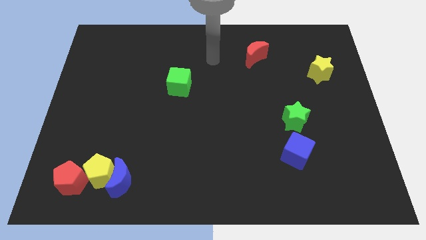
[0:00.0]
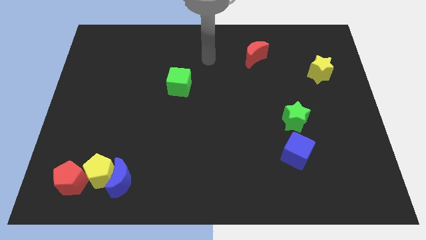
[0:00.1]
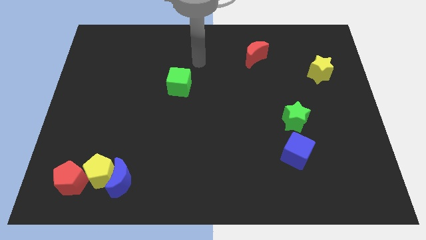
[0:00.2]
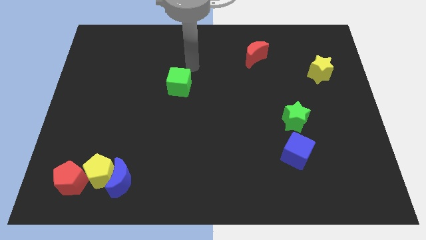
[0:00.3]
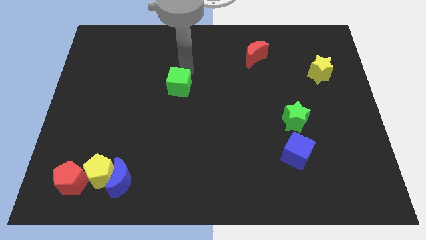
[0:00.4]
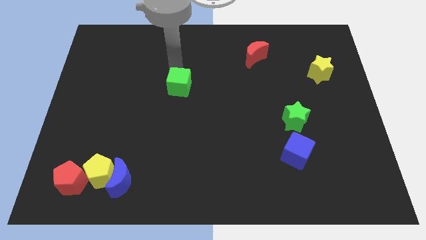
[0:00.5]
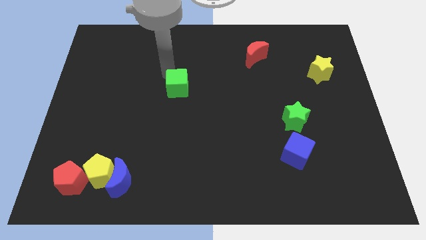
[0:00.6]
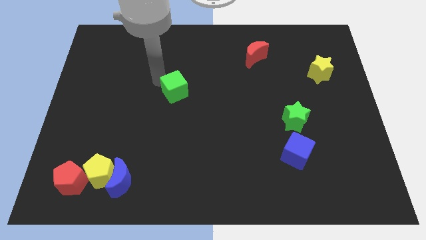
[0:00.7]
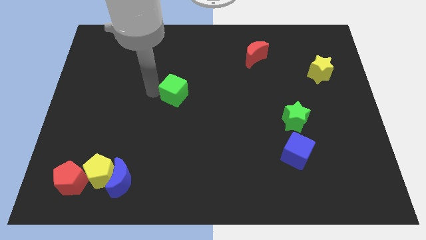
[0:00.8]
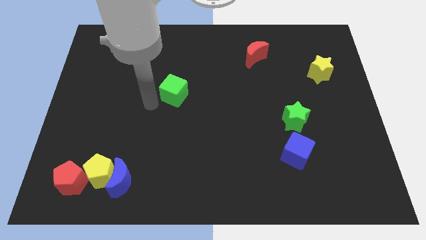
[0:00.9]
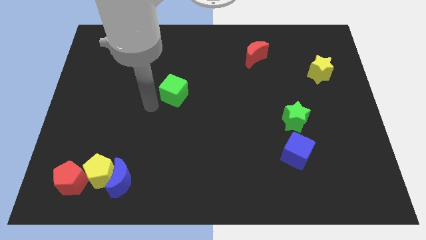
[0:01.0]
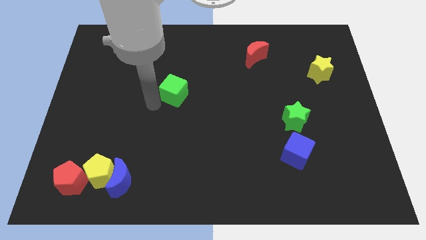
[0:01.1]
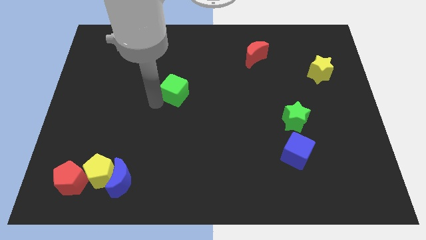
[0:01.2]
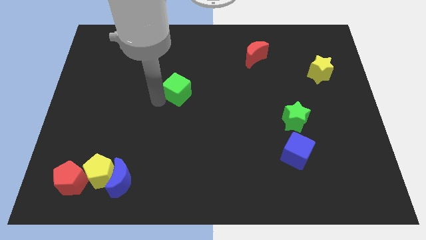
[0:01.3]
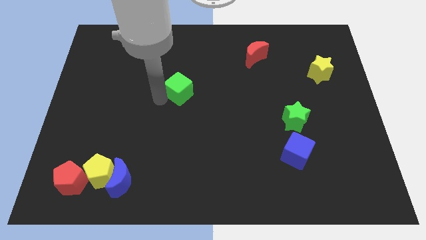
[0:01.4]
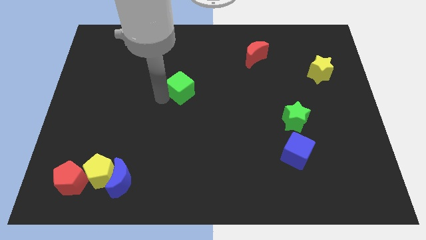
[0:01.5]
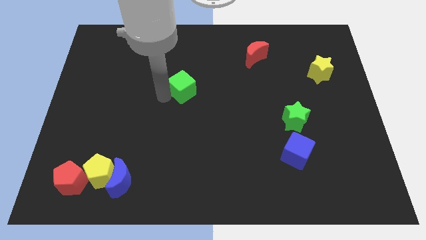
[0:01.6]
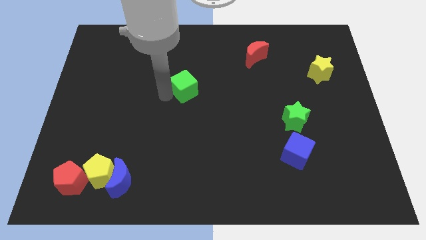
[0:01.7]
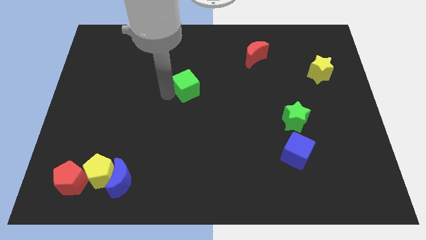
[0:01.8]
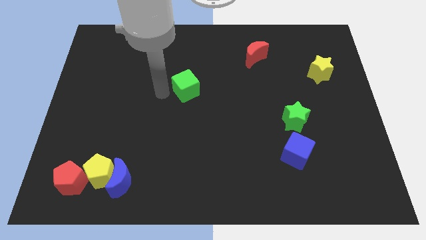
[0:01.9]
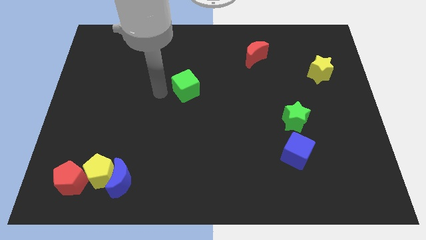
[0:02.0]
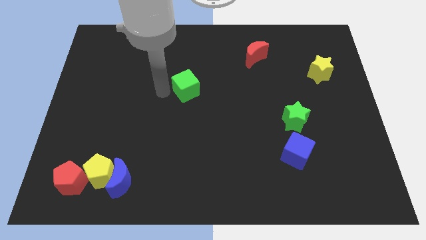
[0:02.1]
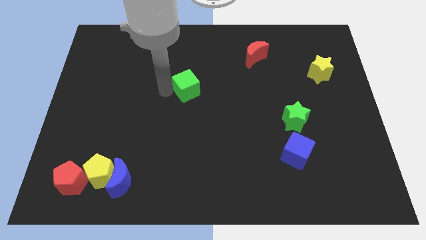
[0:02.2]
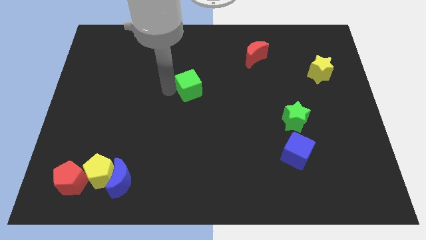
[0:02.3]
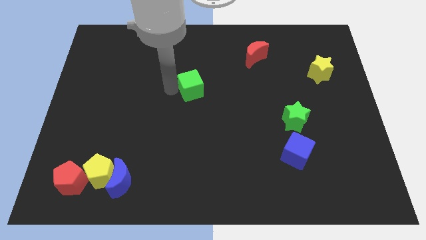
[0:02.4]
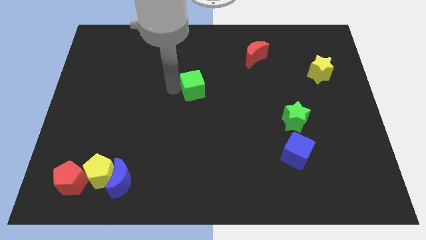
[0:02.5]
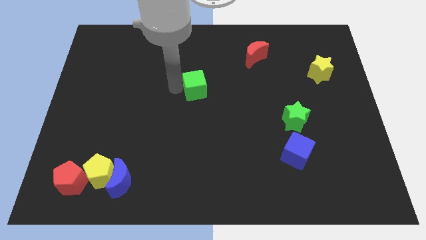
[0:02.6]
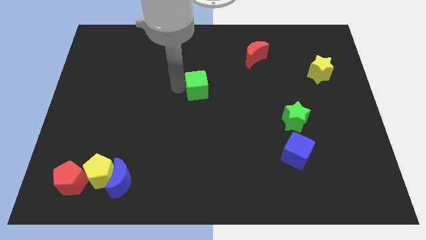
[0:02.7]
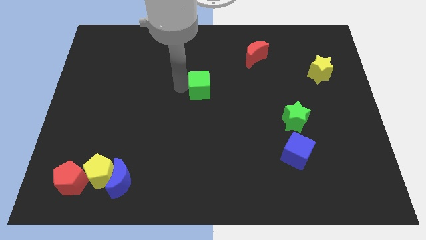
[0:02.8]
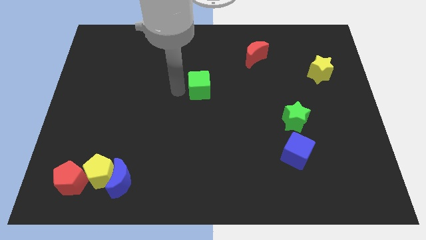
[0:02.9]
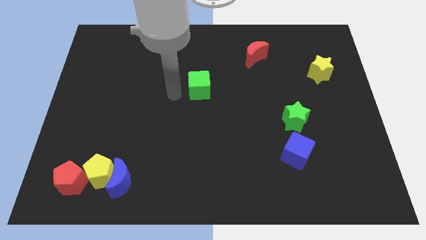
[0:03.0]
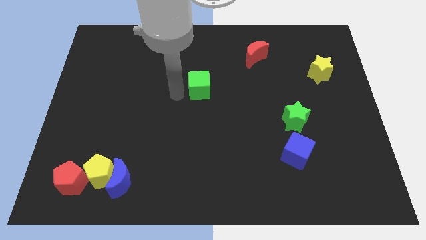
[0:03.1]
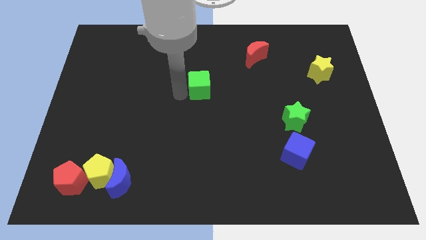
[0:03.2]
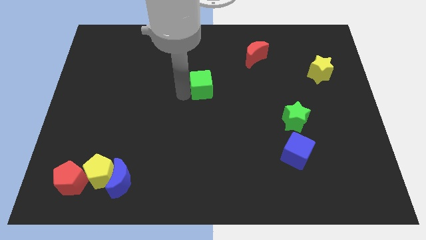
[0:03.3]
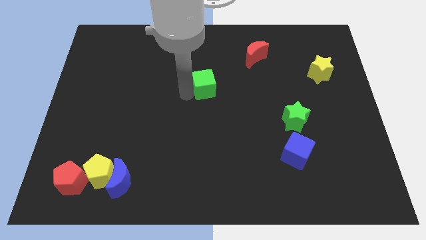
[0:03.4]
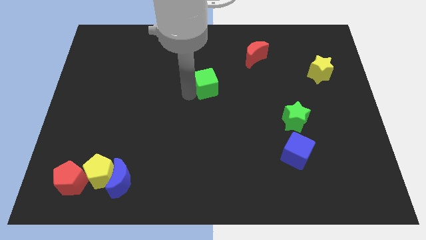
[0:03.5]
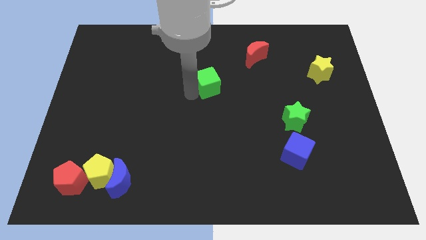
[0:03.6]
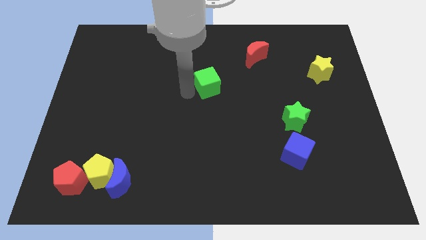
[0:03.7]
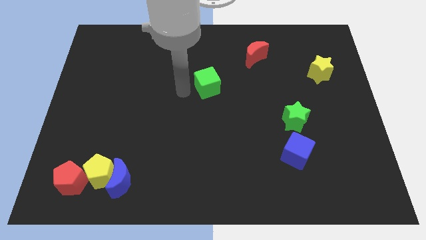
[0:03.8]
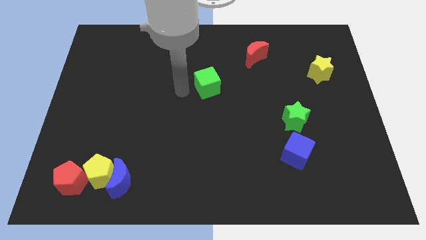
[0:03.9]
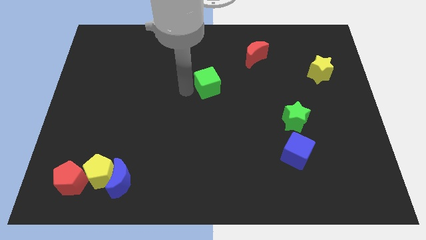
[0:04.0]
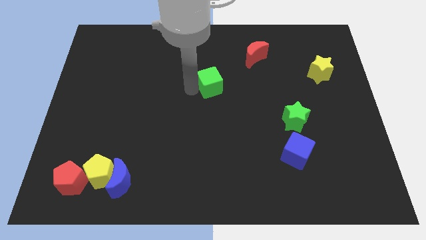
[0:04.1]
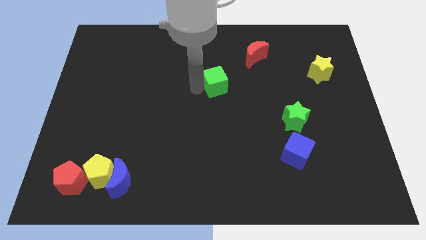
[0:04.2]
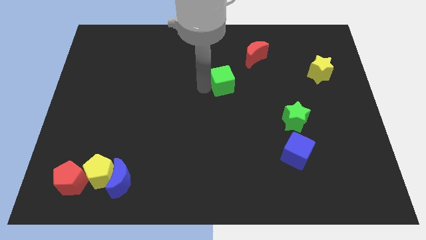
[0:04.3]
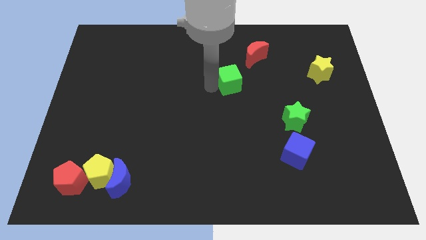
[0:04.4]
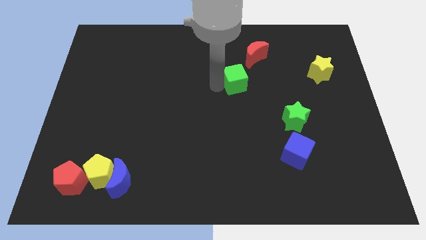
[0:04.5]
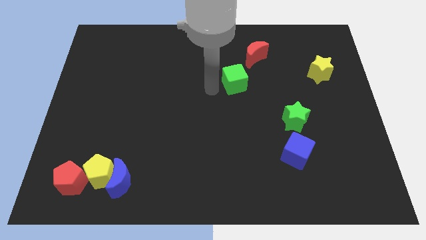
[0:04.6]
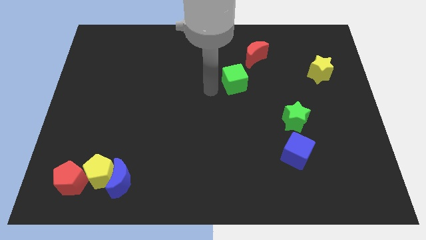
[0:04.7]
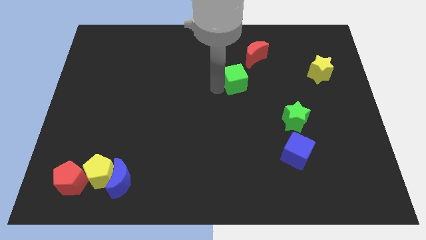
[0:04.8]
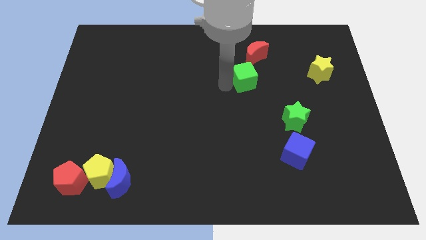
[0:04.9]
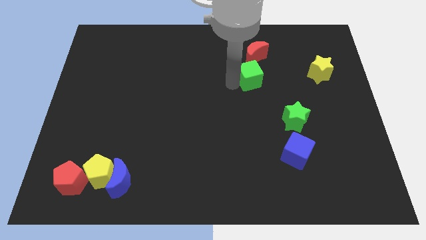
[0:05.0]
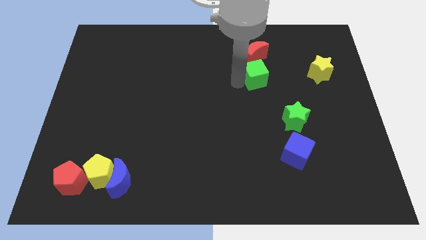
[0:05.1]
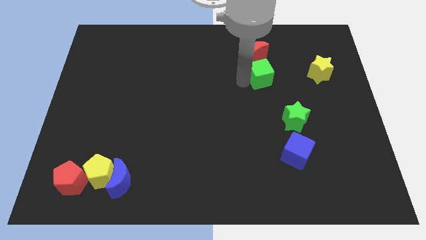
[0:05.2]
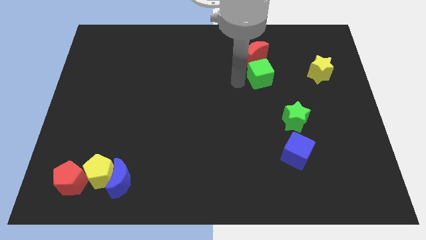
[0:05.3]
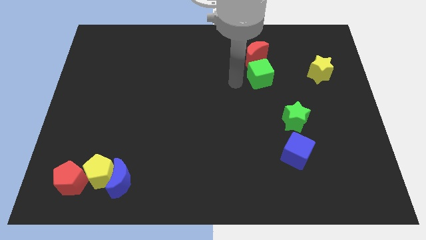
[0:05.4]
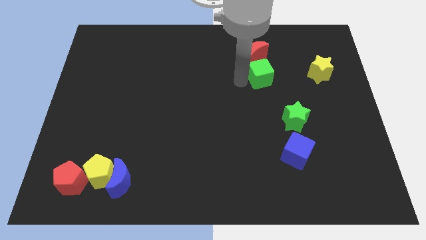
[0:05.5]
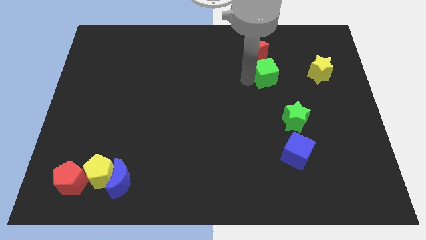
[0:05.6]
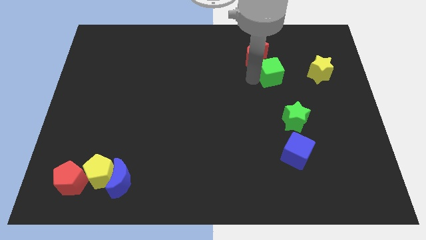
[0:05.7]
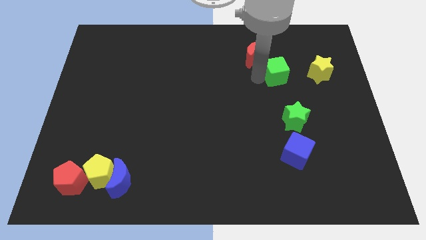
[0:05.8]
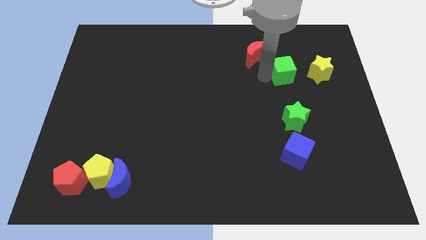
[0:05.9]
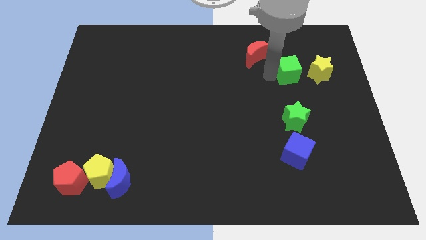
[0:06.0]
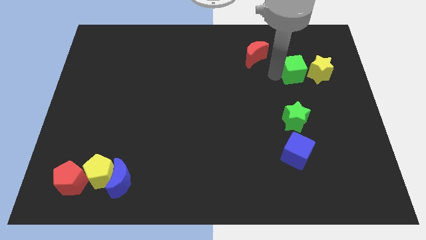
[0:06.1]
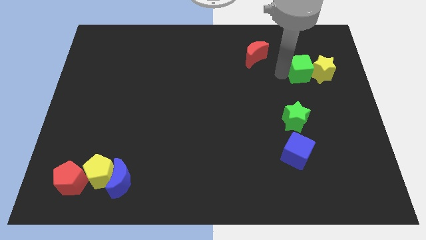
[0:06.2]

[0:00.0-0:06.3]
move the green cube towards the yellow star

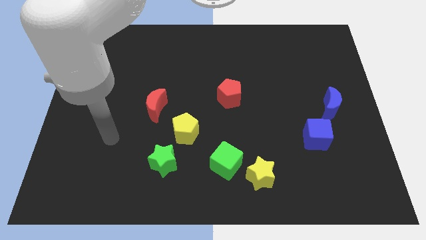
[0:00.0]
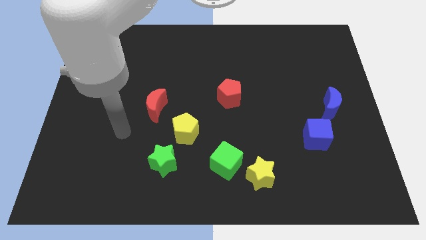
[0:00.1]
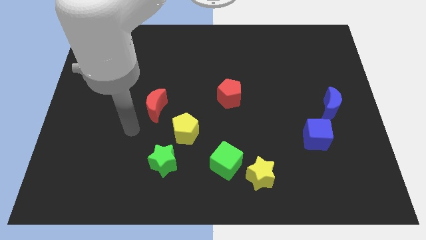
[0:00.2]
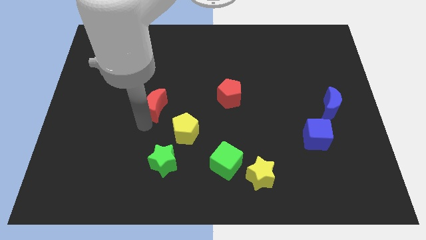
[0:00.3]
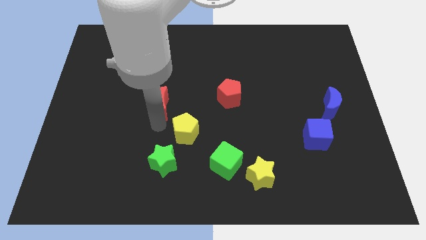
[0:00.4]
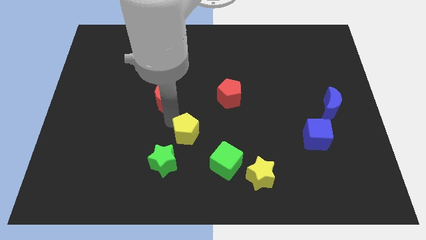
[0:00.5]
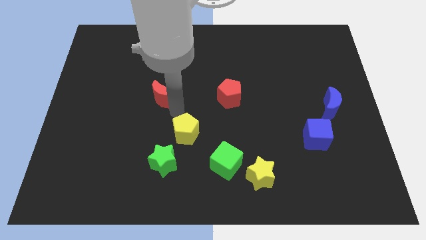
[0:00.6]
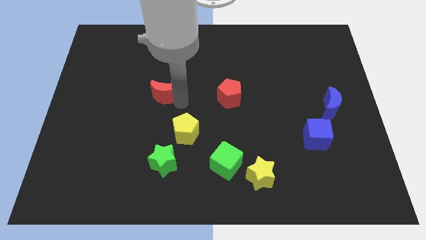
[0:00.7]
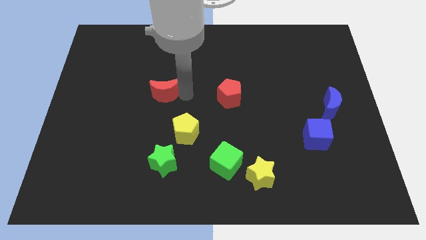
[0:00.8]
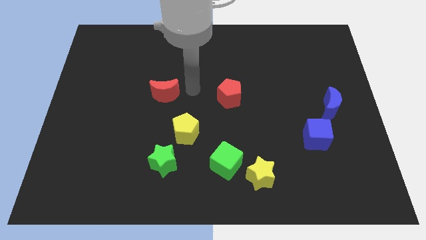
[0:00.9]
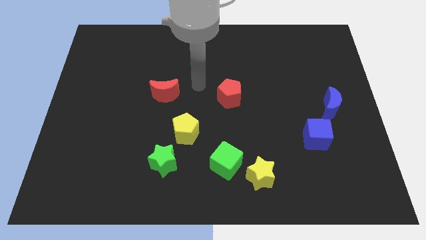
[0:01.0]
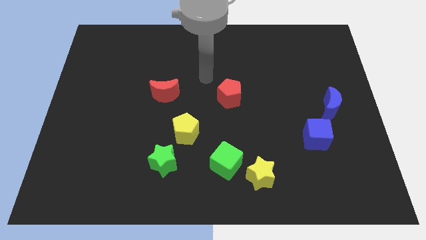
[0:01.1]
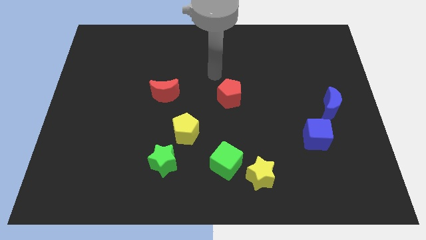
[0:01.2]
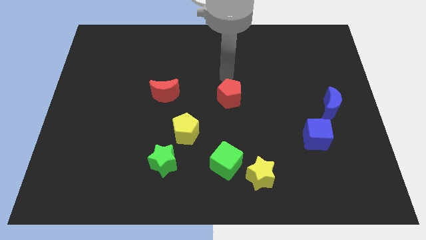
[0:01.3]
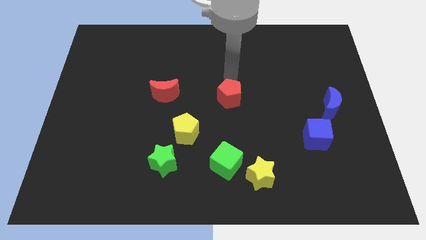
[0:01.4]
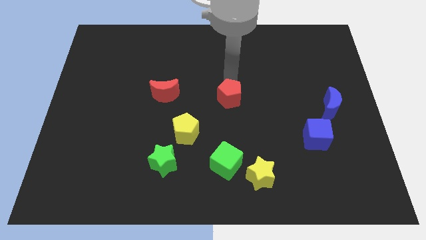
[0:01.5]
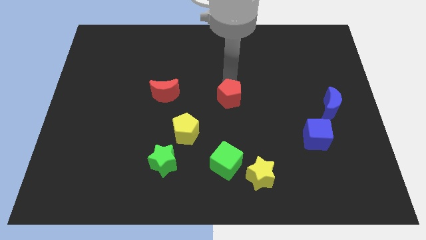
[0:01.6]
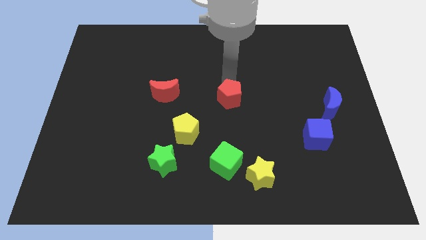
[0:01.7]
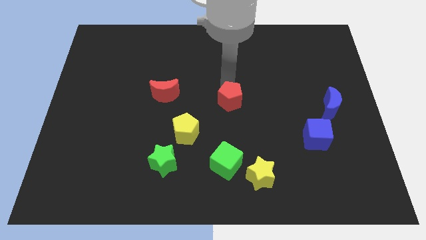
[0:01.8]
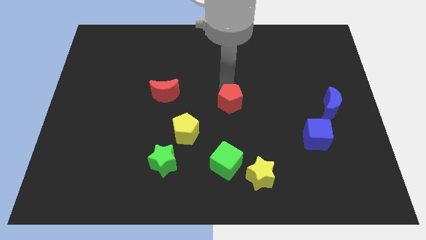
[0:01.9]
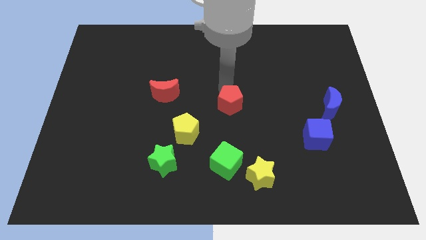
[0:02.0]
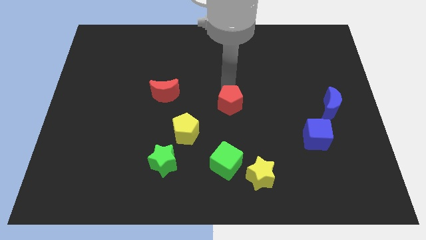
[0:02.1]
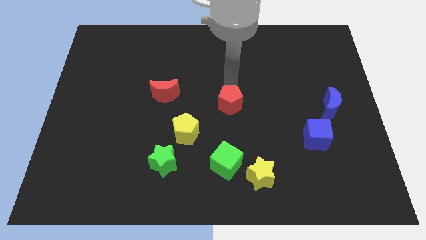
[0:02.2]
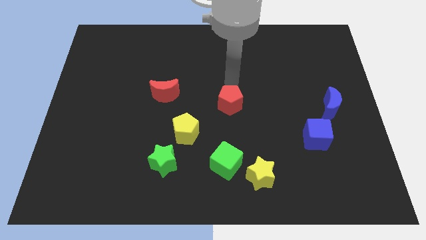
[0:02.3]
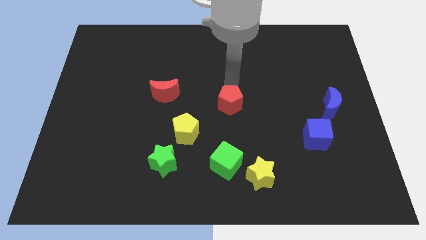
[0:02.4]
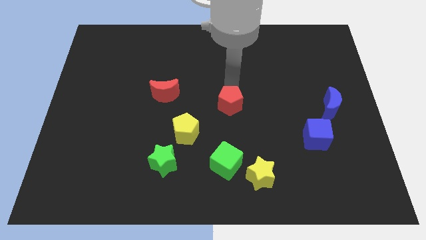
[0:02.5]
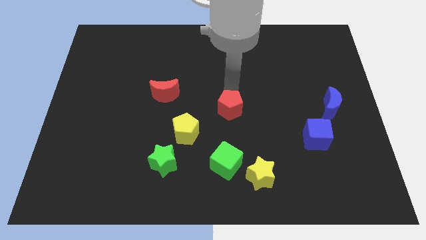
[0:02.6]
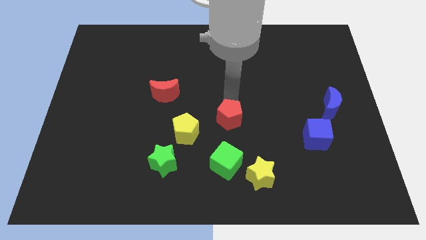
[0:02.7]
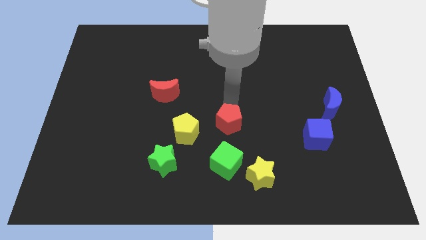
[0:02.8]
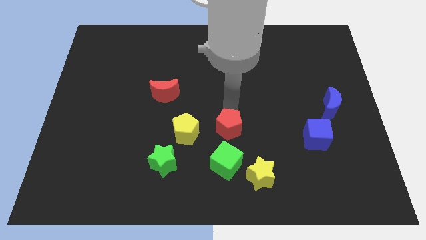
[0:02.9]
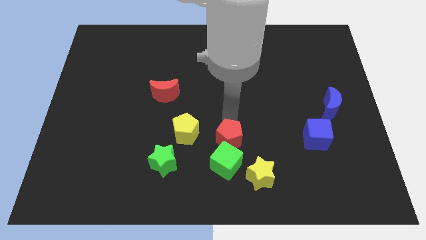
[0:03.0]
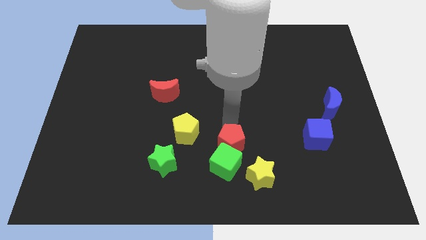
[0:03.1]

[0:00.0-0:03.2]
slide the red pentagon towards the green cube
